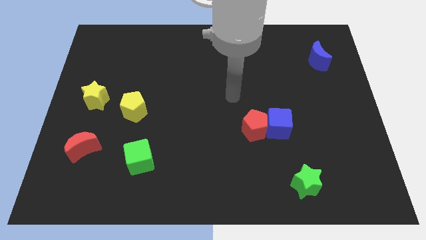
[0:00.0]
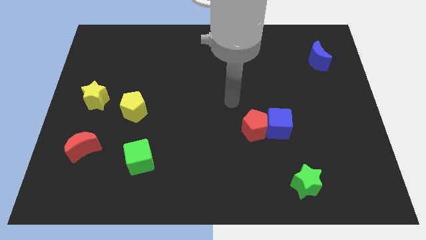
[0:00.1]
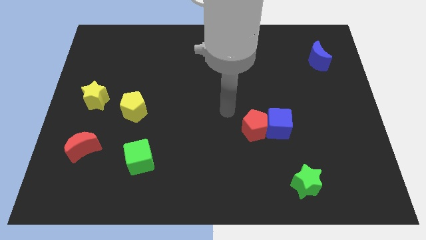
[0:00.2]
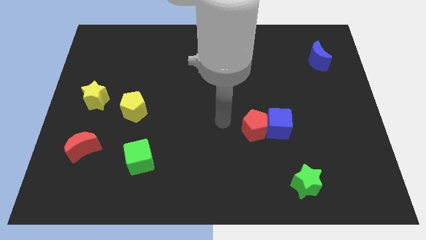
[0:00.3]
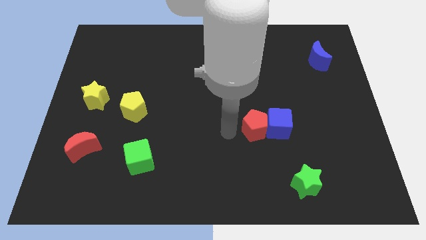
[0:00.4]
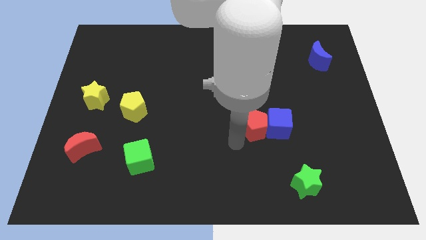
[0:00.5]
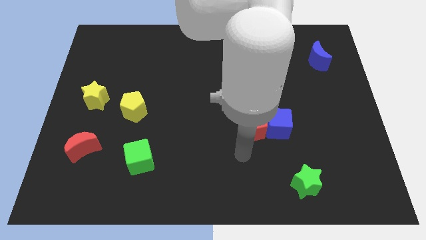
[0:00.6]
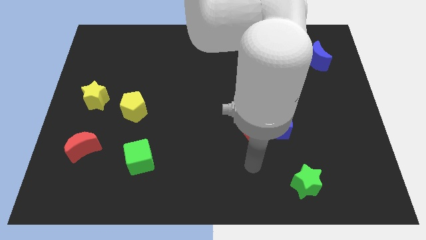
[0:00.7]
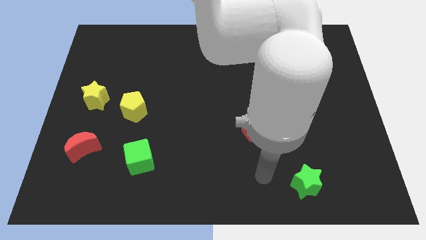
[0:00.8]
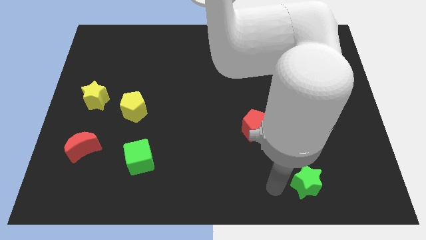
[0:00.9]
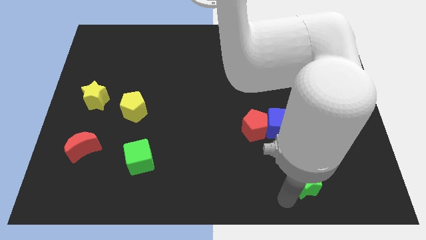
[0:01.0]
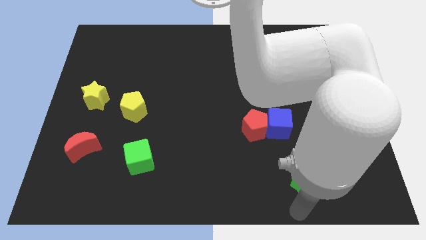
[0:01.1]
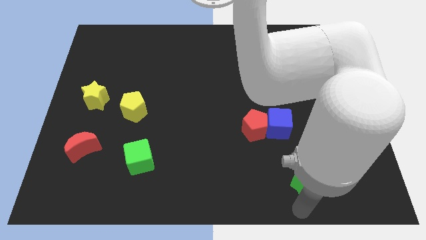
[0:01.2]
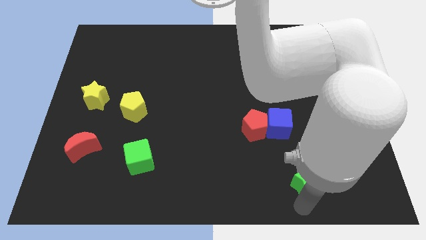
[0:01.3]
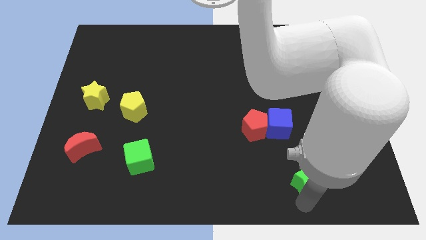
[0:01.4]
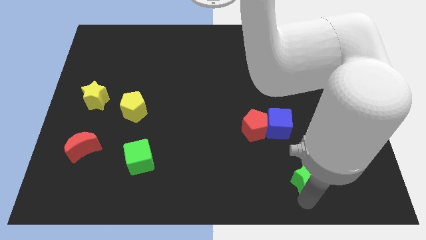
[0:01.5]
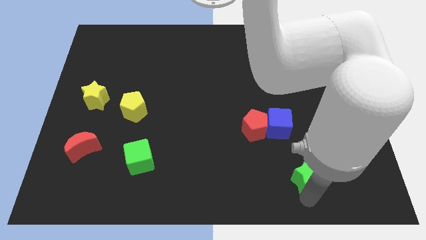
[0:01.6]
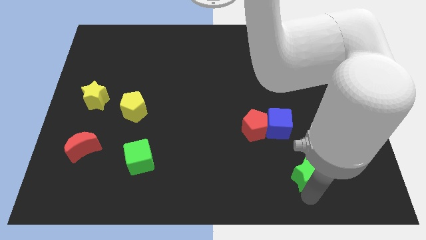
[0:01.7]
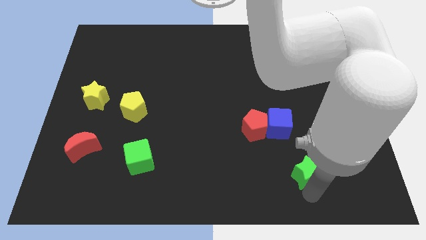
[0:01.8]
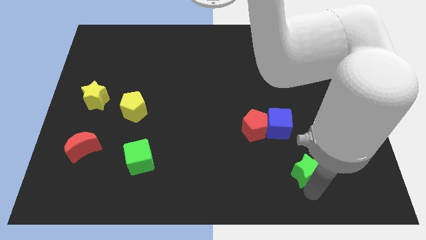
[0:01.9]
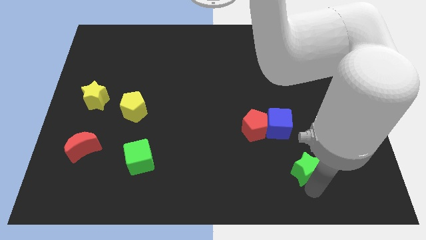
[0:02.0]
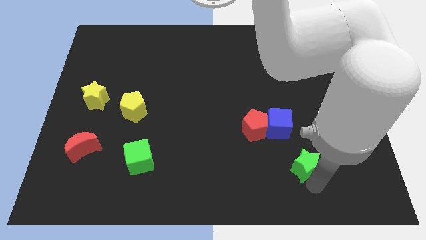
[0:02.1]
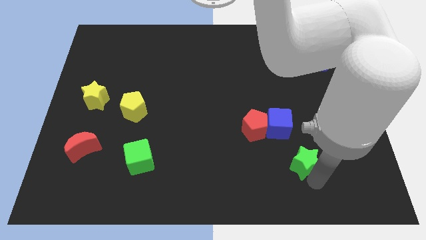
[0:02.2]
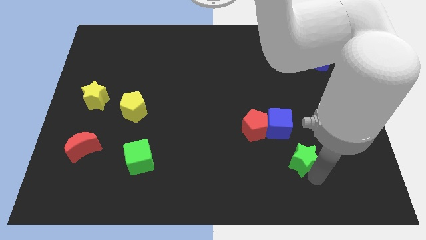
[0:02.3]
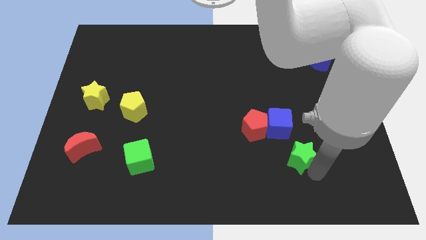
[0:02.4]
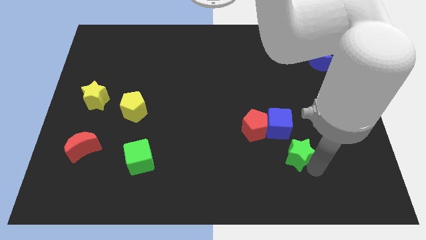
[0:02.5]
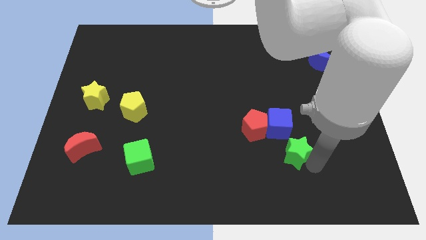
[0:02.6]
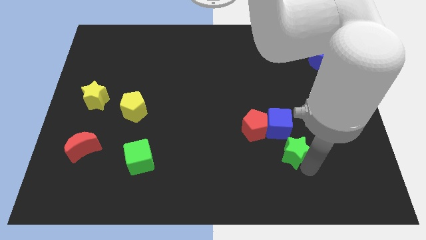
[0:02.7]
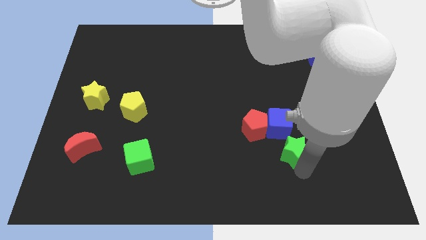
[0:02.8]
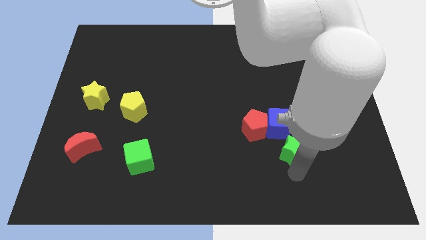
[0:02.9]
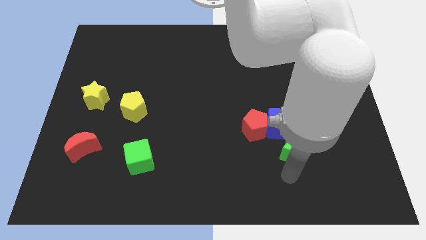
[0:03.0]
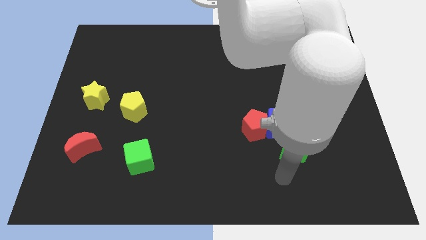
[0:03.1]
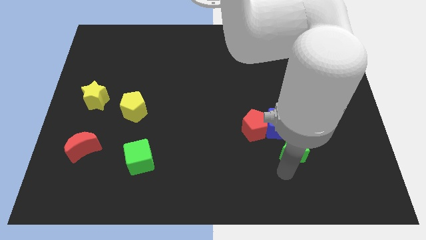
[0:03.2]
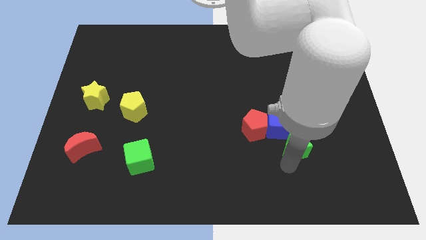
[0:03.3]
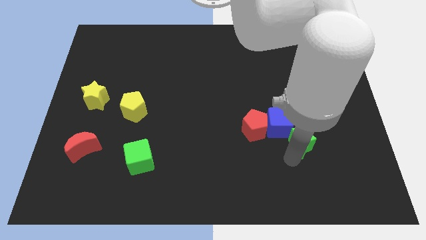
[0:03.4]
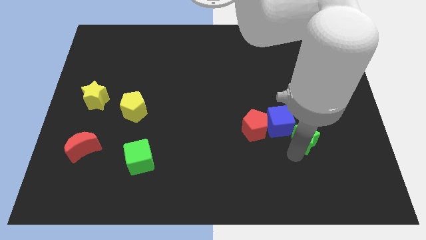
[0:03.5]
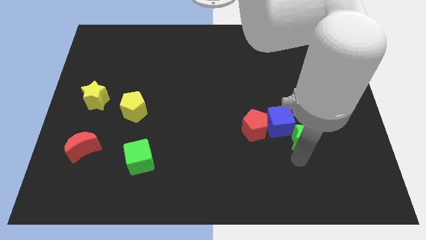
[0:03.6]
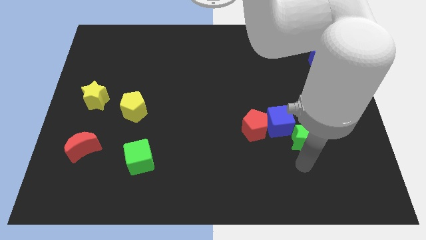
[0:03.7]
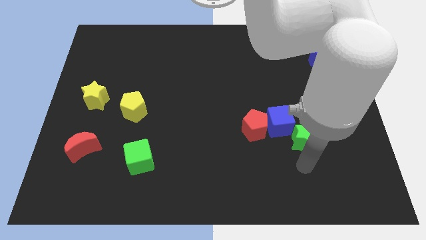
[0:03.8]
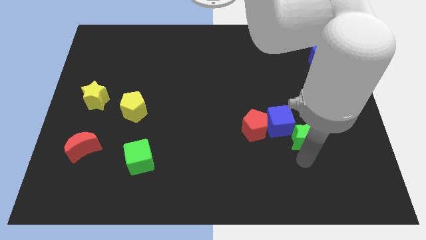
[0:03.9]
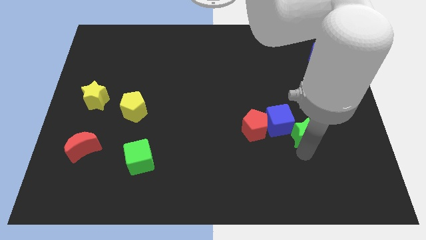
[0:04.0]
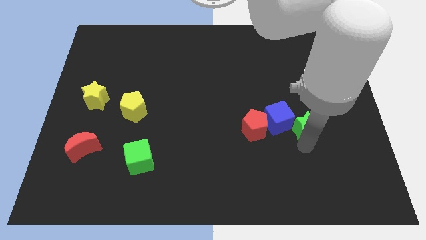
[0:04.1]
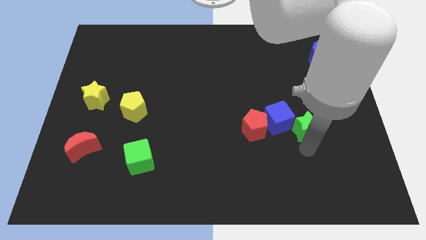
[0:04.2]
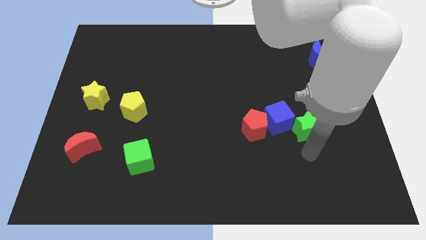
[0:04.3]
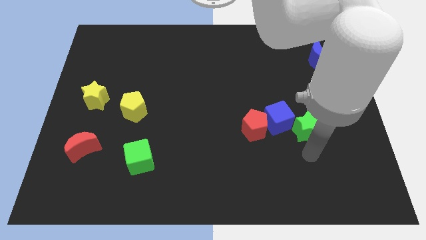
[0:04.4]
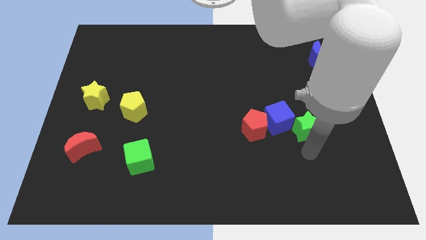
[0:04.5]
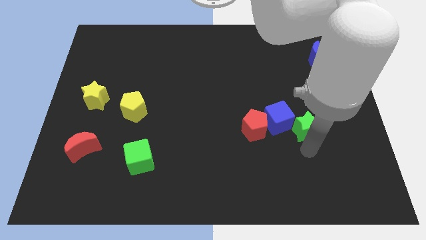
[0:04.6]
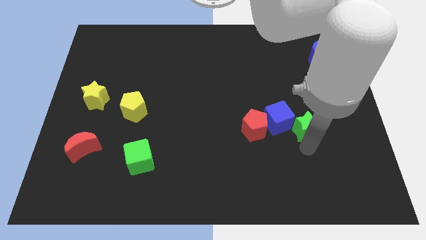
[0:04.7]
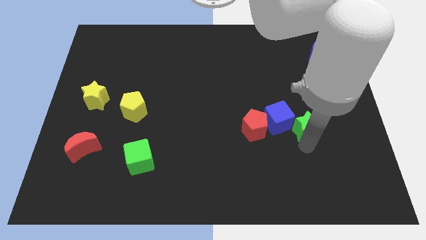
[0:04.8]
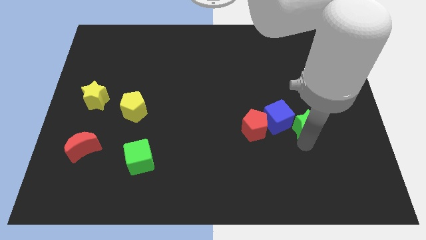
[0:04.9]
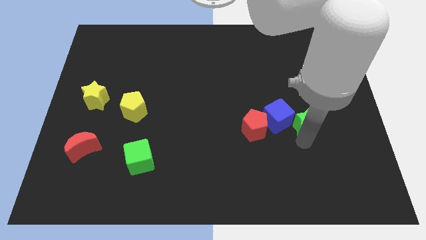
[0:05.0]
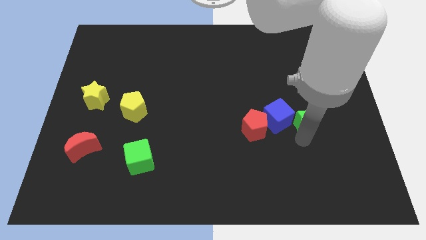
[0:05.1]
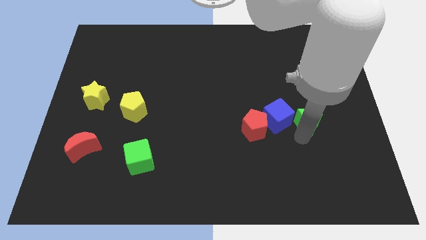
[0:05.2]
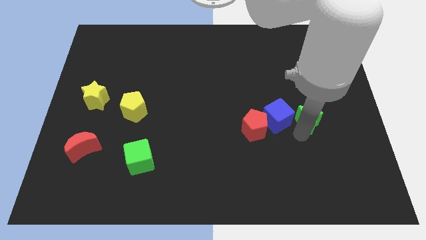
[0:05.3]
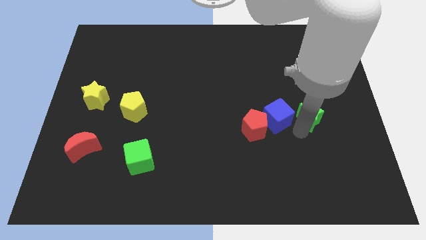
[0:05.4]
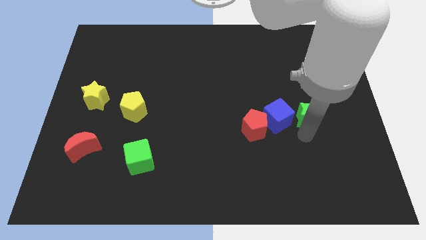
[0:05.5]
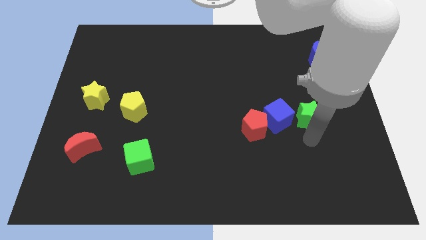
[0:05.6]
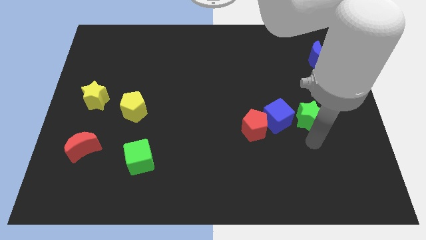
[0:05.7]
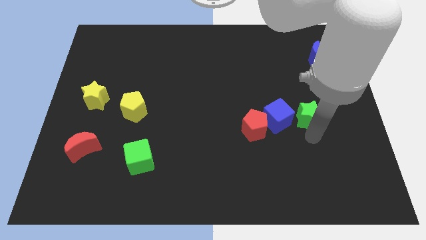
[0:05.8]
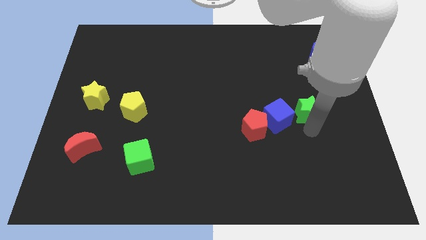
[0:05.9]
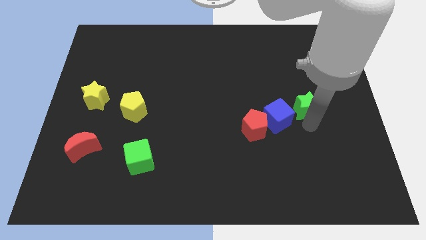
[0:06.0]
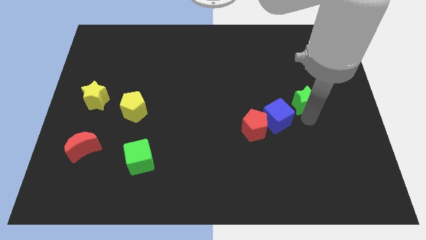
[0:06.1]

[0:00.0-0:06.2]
slide the green star upwards

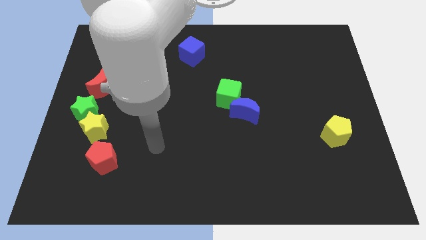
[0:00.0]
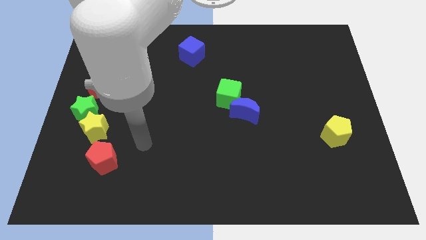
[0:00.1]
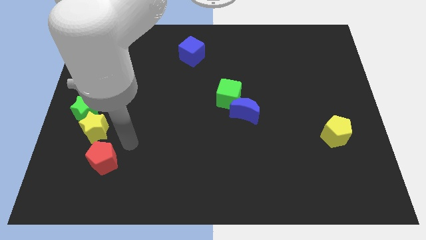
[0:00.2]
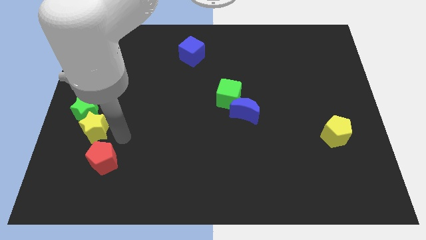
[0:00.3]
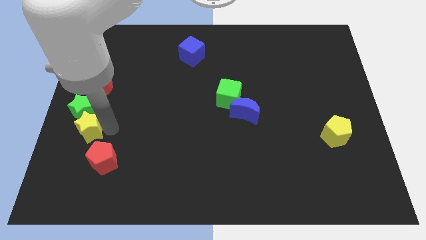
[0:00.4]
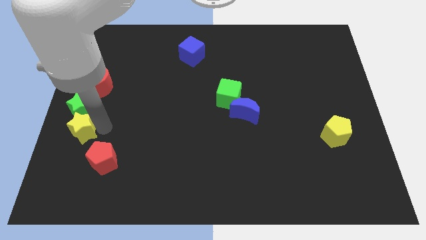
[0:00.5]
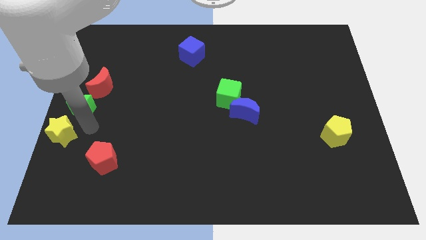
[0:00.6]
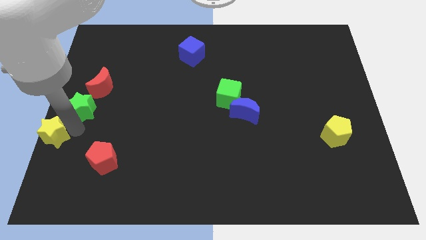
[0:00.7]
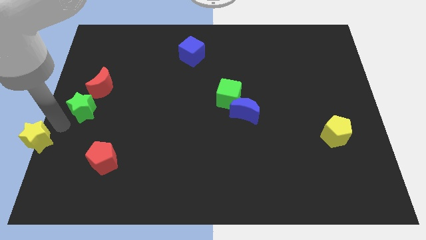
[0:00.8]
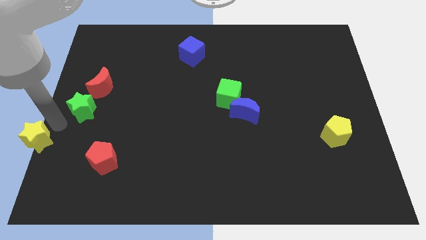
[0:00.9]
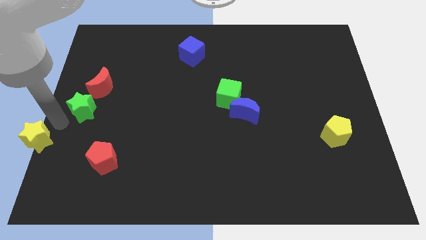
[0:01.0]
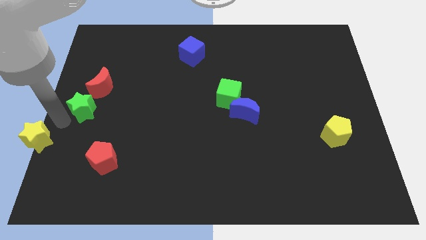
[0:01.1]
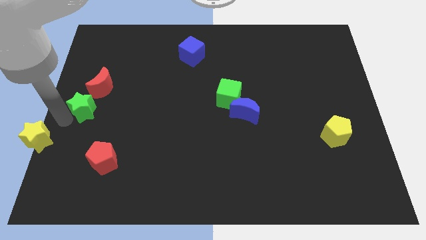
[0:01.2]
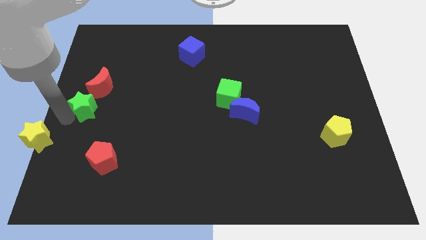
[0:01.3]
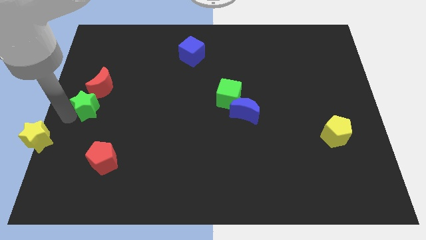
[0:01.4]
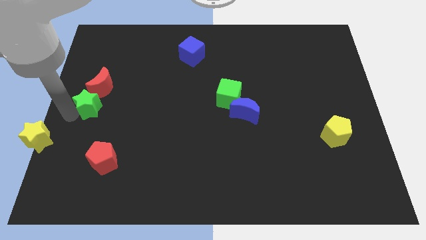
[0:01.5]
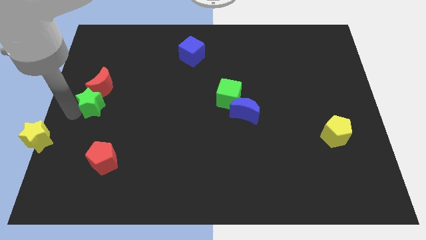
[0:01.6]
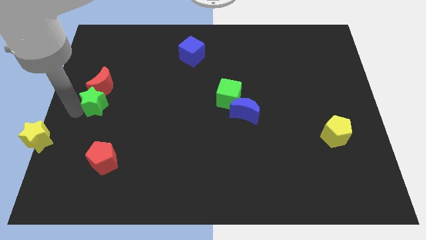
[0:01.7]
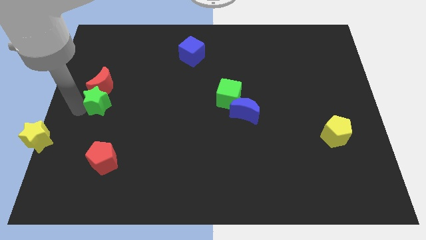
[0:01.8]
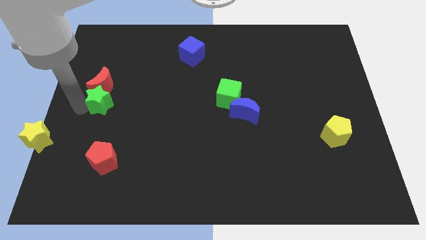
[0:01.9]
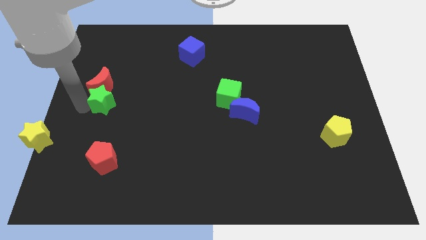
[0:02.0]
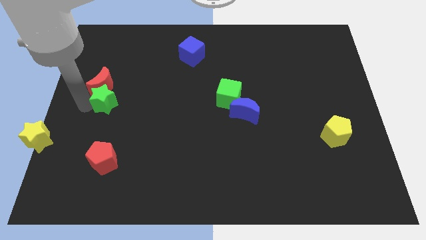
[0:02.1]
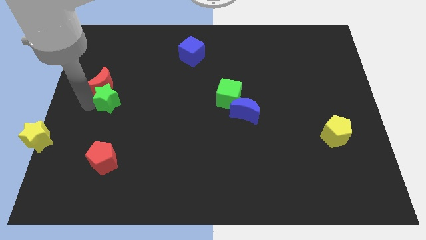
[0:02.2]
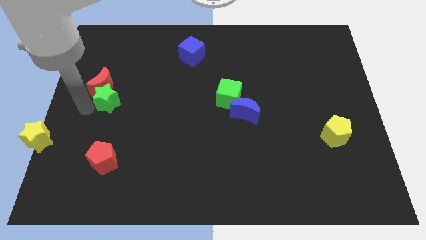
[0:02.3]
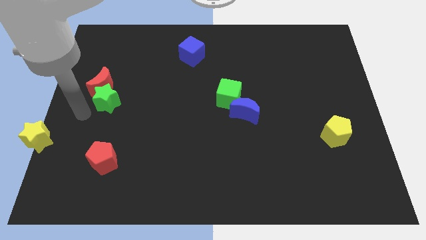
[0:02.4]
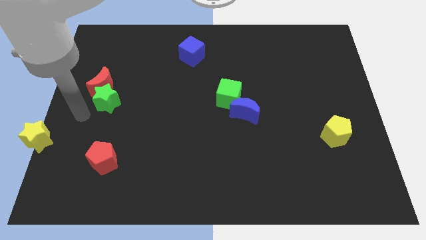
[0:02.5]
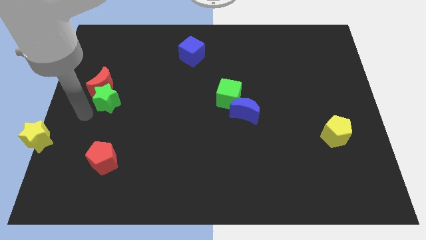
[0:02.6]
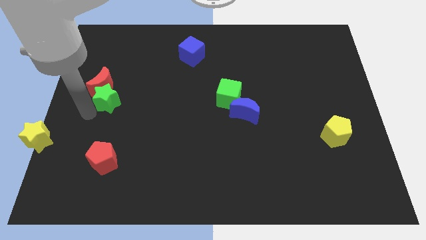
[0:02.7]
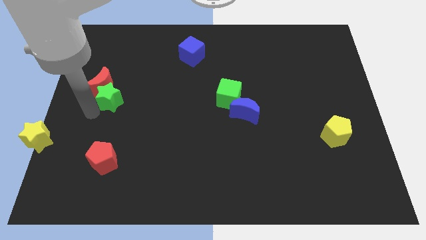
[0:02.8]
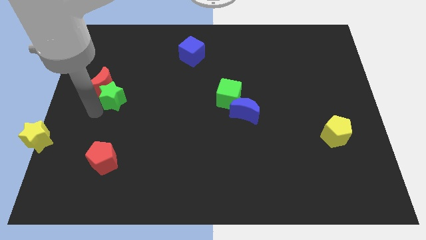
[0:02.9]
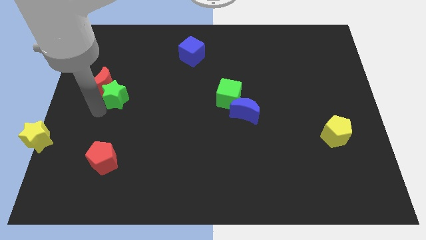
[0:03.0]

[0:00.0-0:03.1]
slide the green star upwards and then to the right slightly
